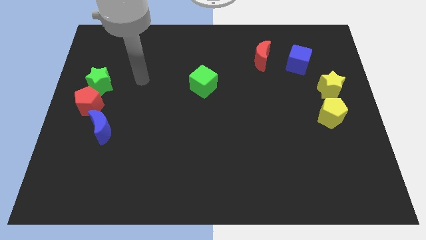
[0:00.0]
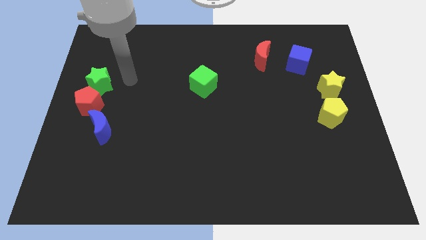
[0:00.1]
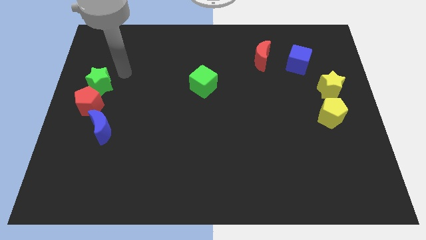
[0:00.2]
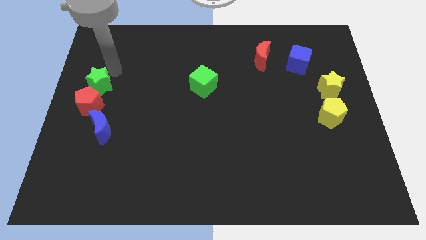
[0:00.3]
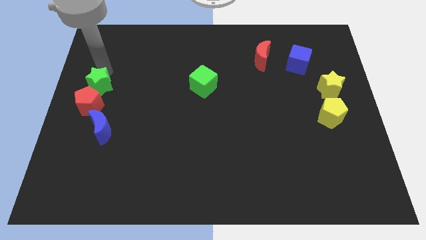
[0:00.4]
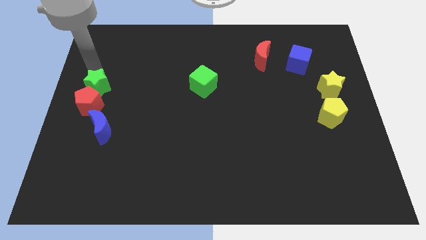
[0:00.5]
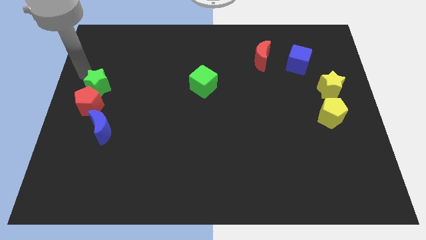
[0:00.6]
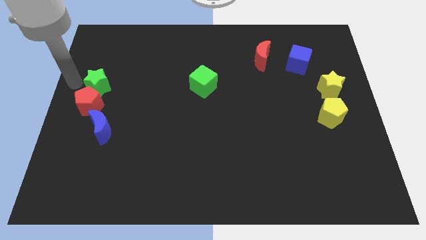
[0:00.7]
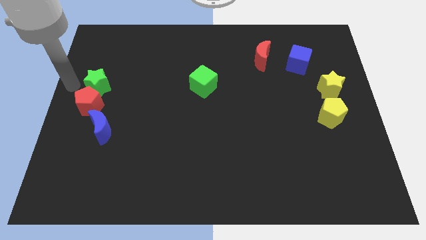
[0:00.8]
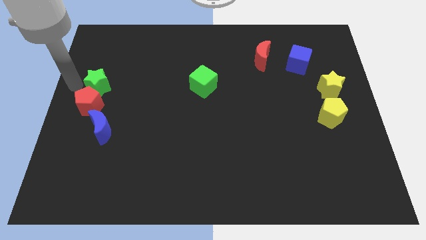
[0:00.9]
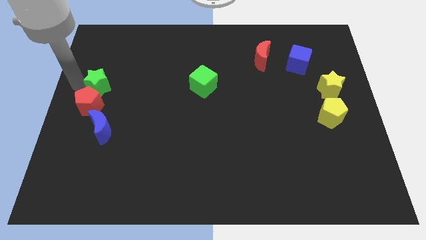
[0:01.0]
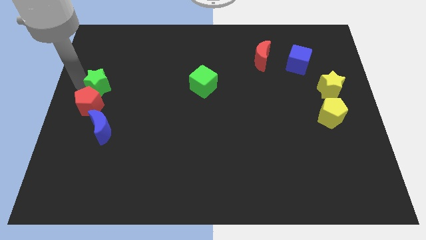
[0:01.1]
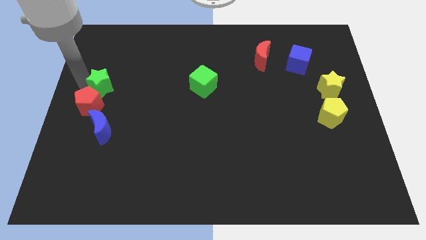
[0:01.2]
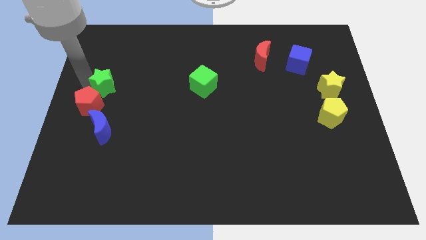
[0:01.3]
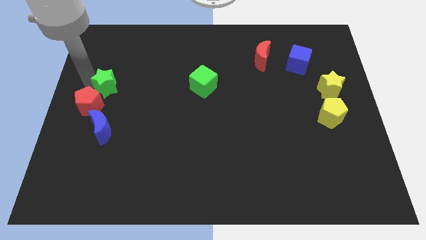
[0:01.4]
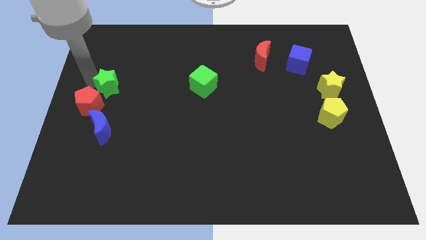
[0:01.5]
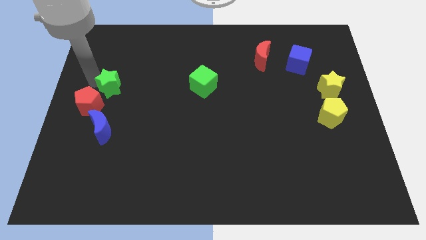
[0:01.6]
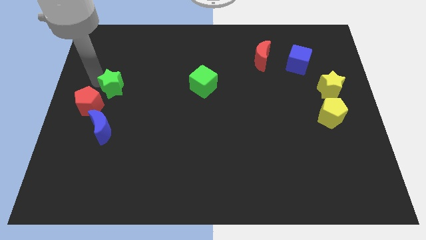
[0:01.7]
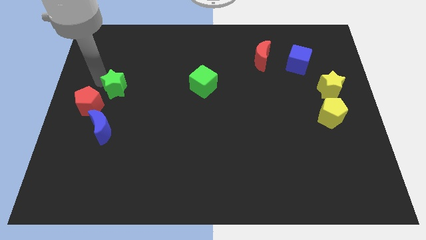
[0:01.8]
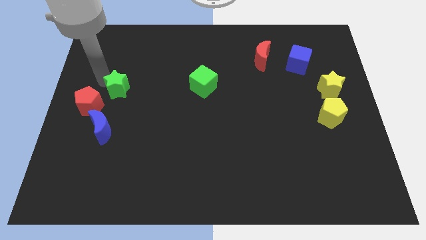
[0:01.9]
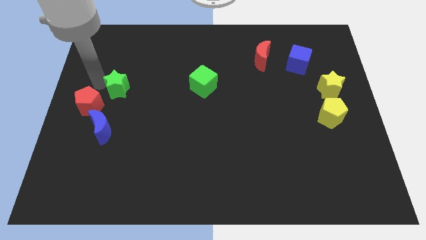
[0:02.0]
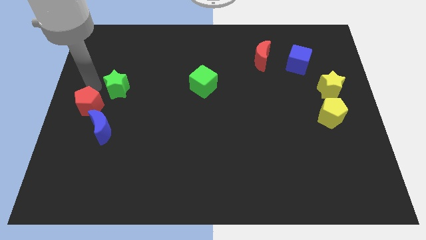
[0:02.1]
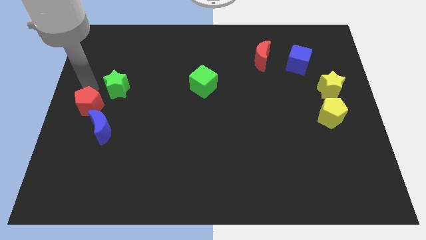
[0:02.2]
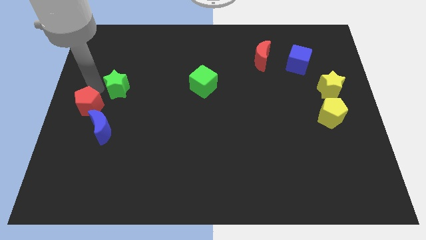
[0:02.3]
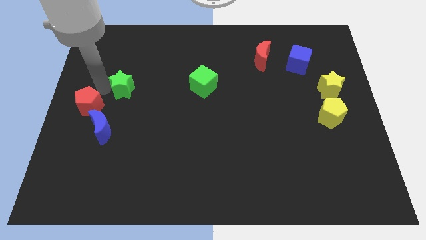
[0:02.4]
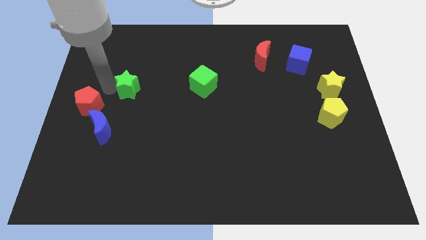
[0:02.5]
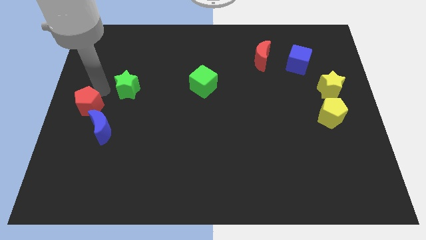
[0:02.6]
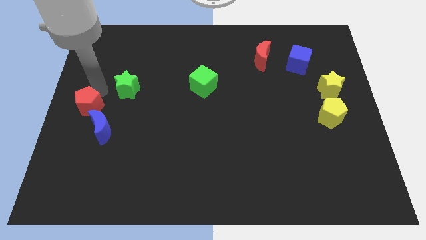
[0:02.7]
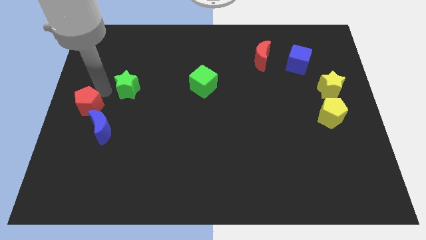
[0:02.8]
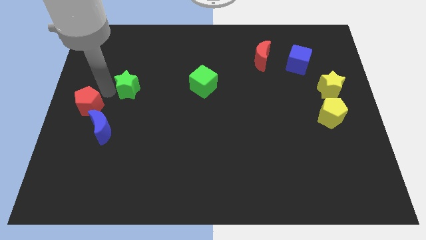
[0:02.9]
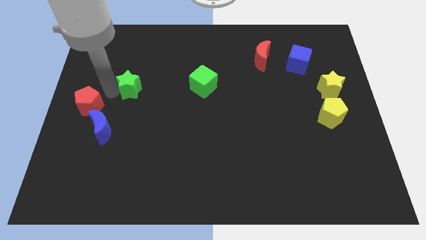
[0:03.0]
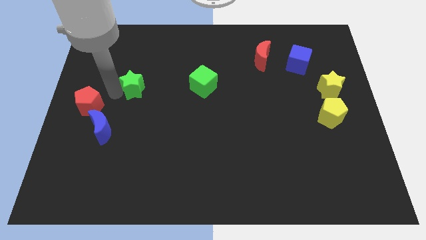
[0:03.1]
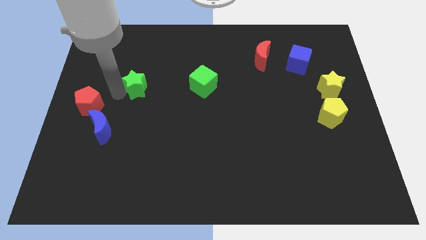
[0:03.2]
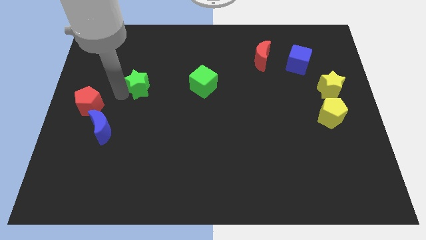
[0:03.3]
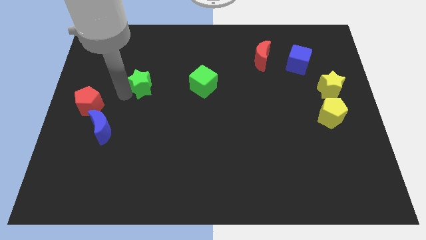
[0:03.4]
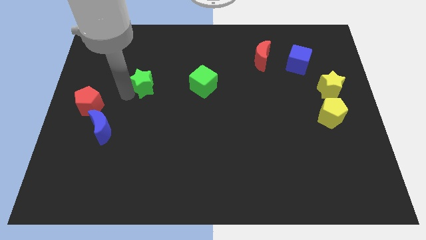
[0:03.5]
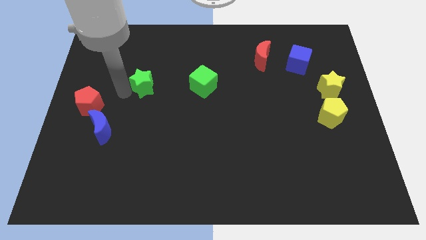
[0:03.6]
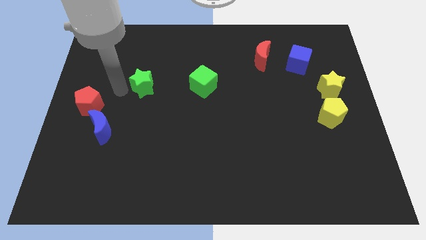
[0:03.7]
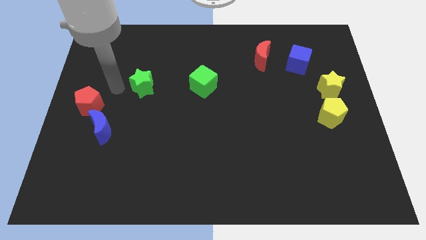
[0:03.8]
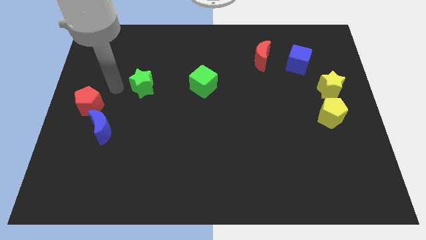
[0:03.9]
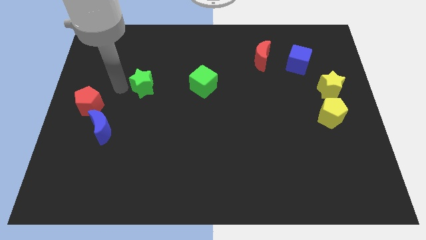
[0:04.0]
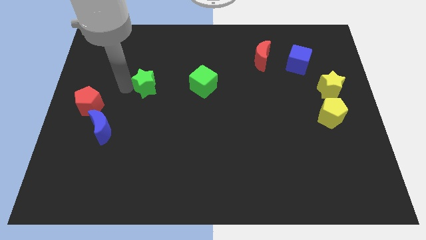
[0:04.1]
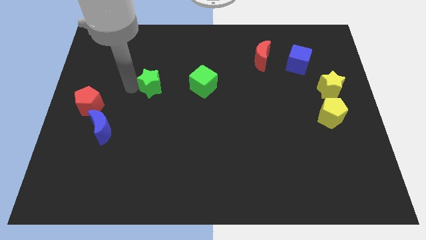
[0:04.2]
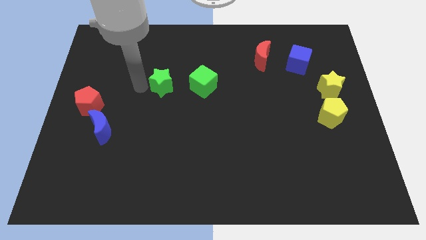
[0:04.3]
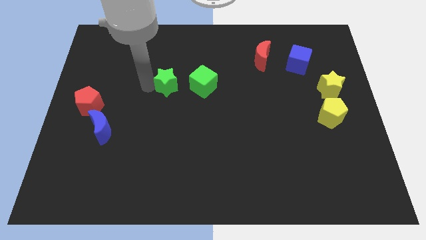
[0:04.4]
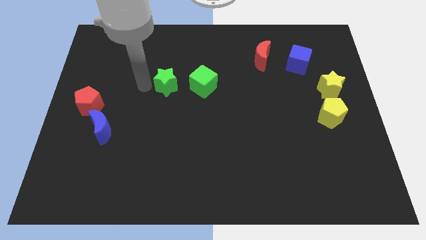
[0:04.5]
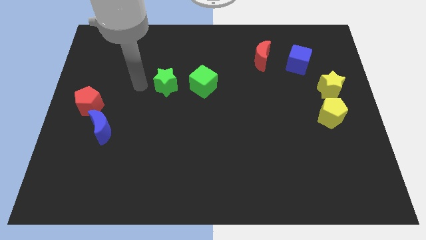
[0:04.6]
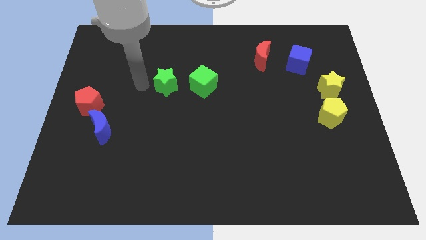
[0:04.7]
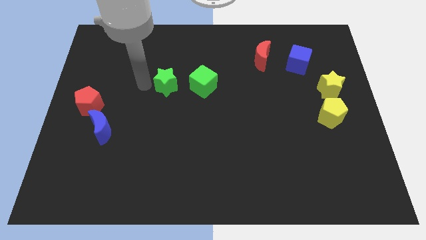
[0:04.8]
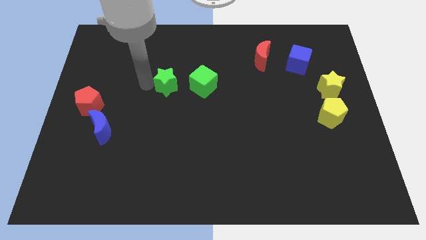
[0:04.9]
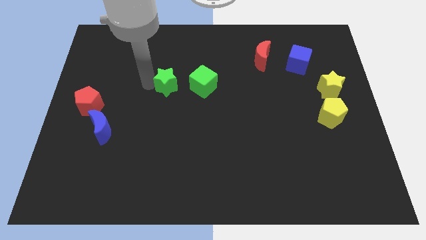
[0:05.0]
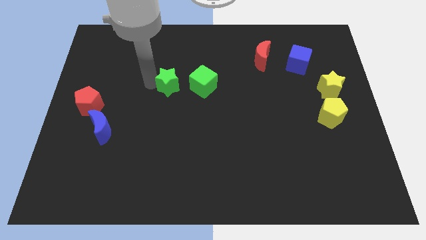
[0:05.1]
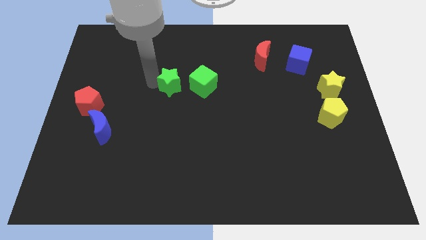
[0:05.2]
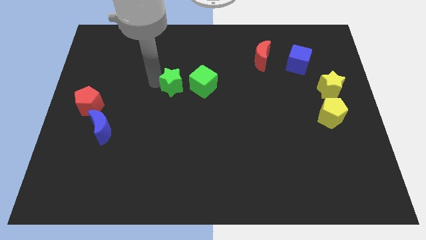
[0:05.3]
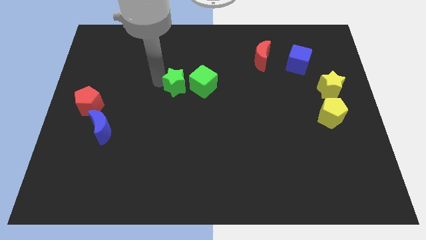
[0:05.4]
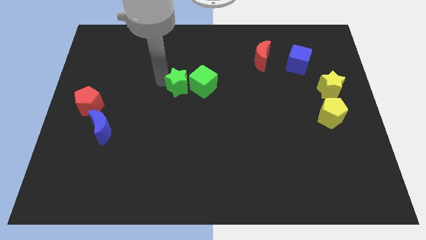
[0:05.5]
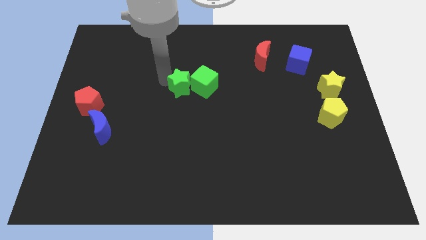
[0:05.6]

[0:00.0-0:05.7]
slide the green star next to the green cube

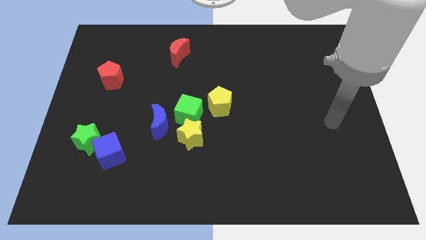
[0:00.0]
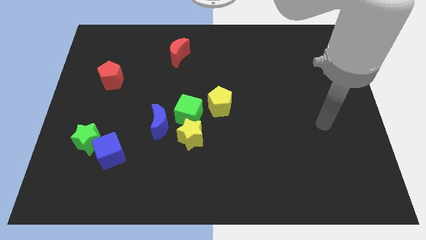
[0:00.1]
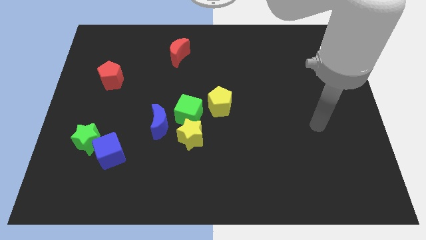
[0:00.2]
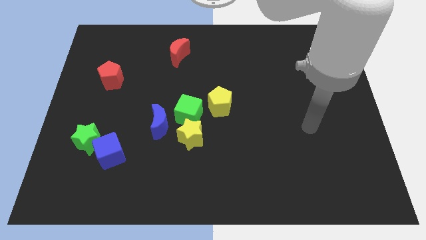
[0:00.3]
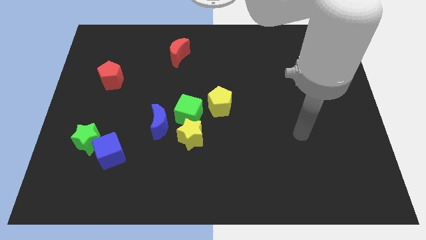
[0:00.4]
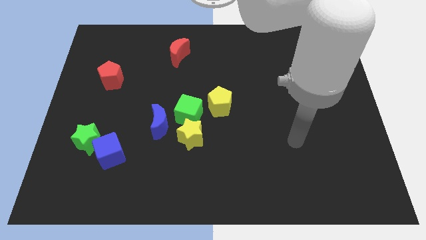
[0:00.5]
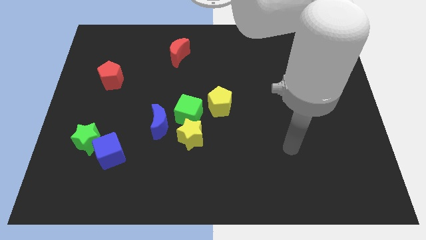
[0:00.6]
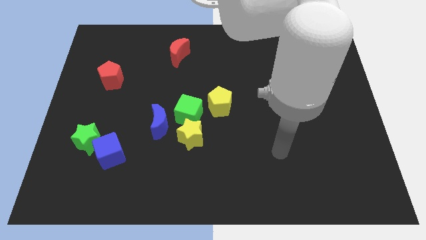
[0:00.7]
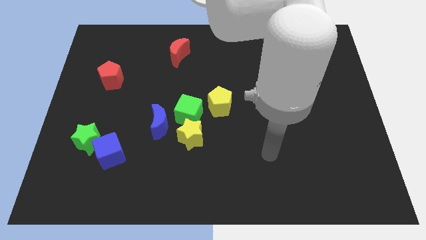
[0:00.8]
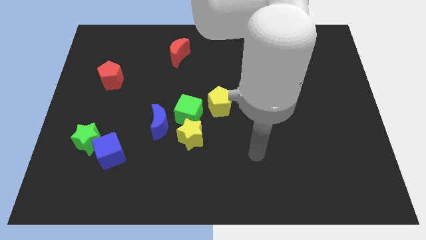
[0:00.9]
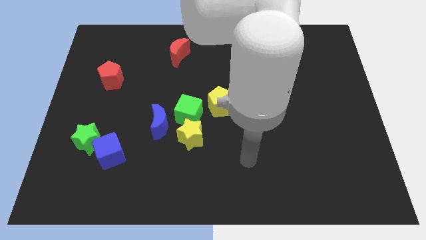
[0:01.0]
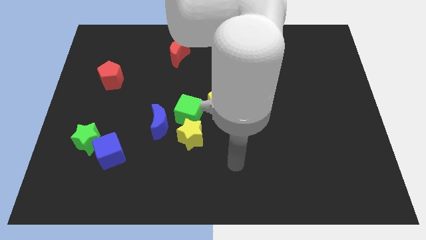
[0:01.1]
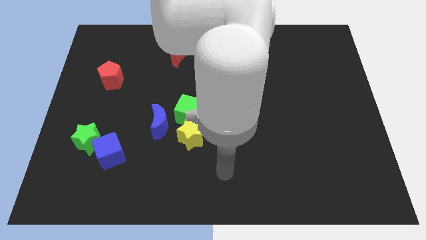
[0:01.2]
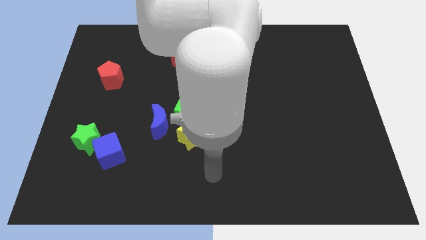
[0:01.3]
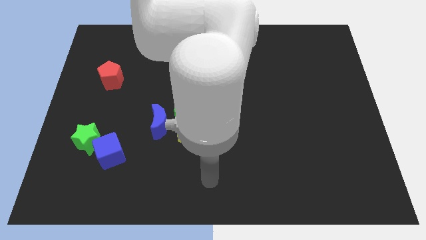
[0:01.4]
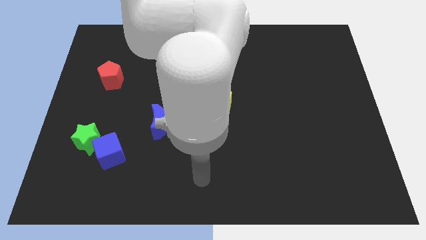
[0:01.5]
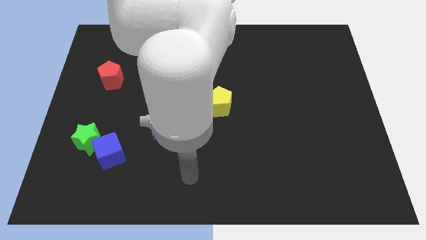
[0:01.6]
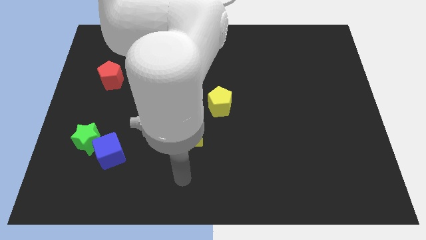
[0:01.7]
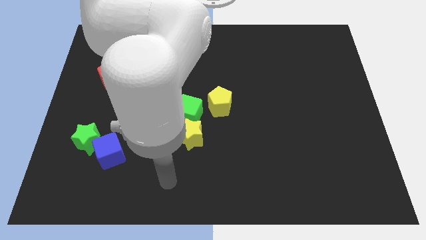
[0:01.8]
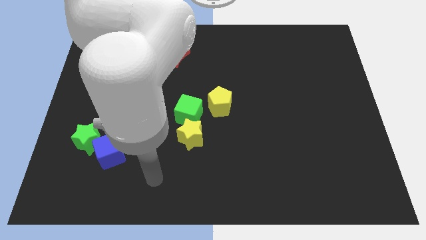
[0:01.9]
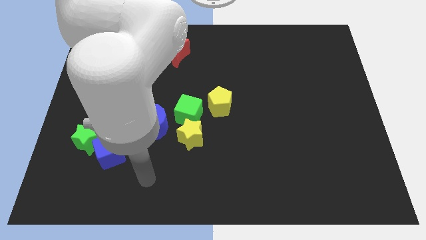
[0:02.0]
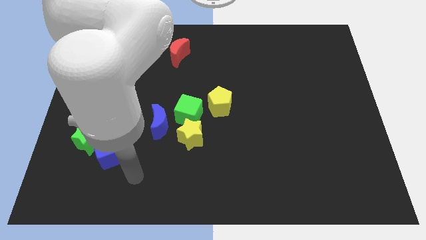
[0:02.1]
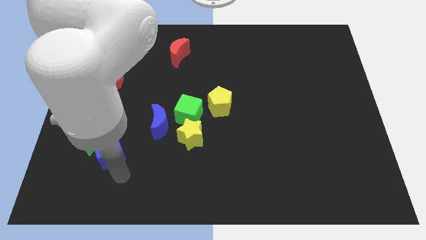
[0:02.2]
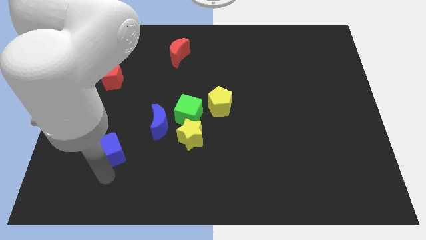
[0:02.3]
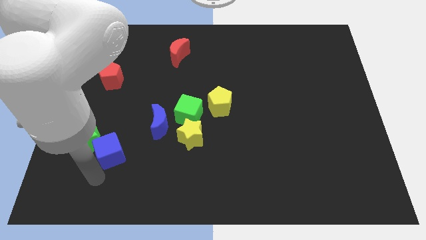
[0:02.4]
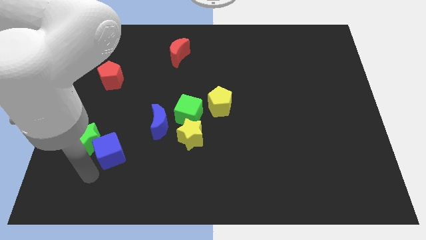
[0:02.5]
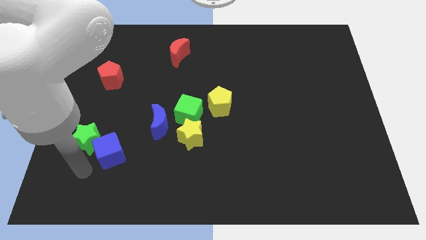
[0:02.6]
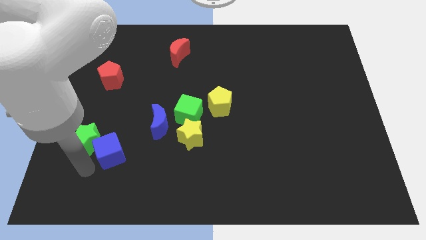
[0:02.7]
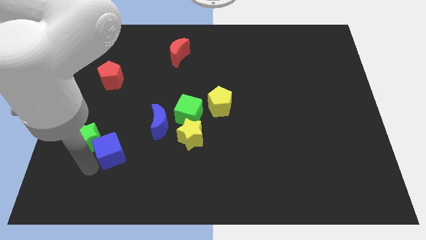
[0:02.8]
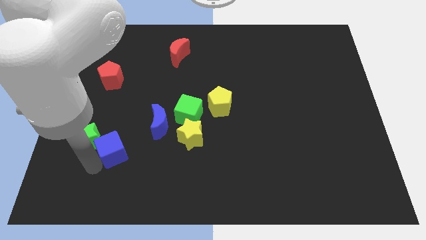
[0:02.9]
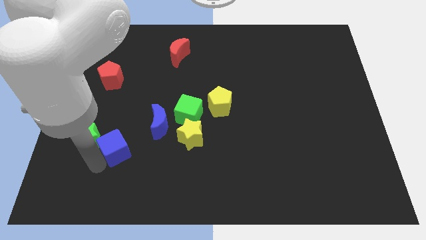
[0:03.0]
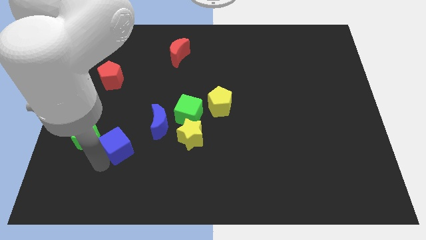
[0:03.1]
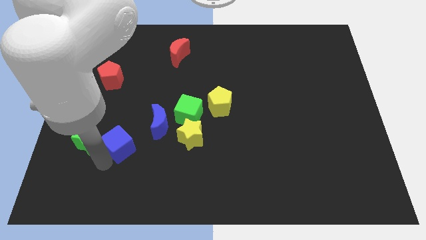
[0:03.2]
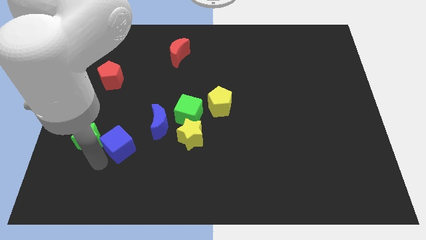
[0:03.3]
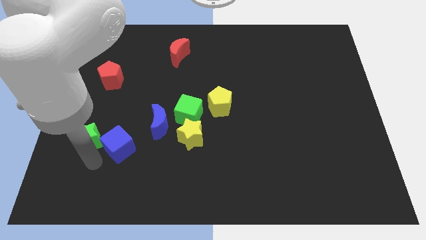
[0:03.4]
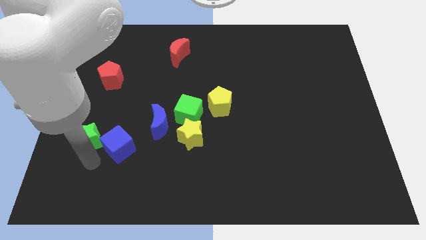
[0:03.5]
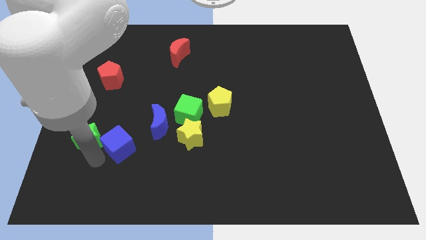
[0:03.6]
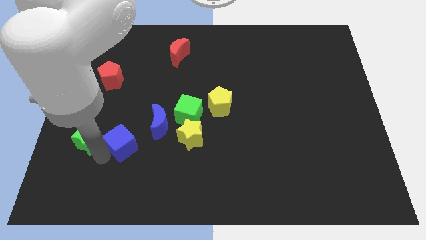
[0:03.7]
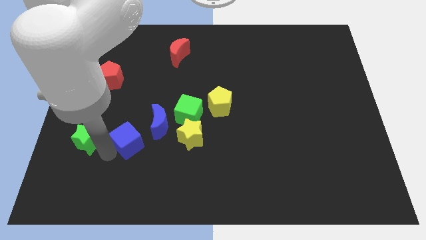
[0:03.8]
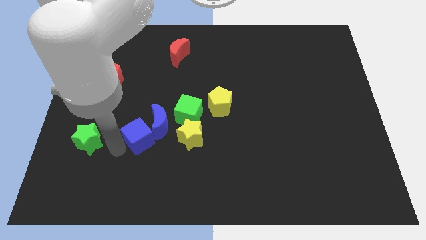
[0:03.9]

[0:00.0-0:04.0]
put the blue cube towards the blue moon
